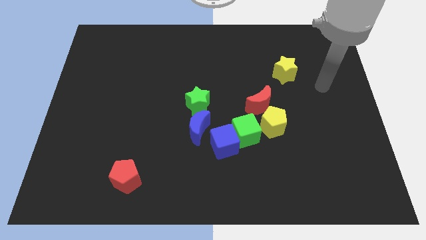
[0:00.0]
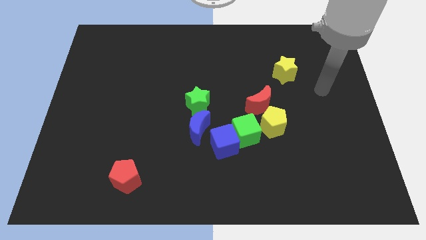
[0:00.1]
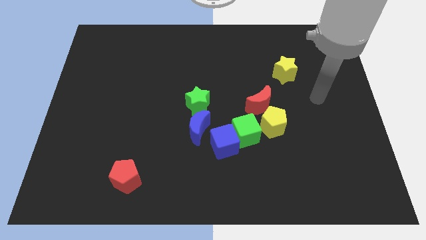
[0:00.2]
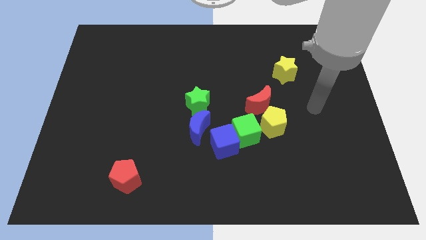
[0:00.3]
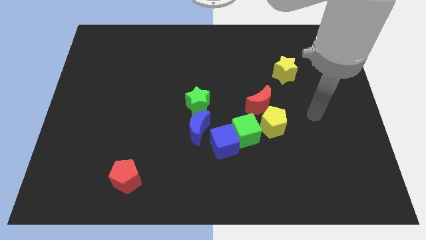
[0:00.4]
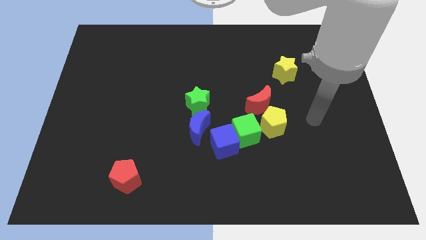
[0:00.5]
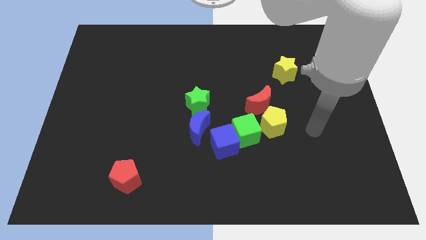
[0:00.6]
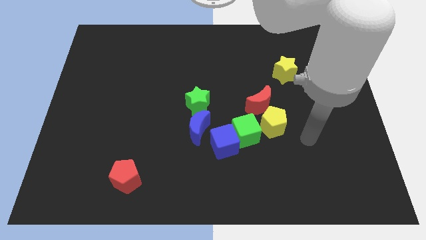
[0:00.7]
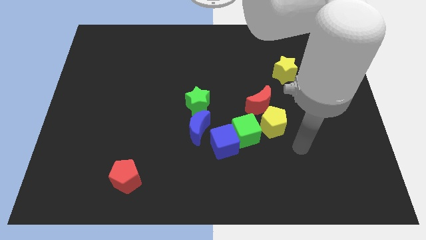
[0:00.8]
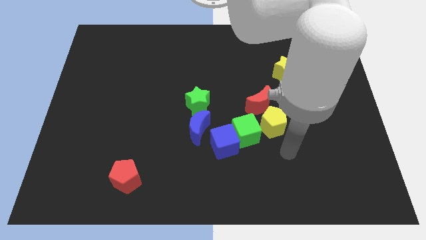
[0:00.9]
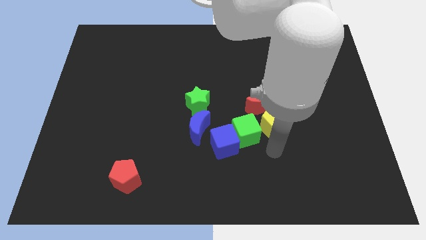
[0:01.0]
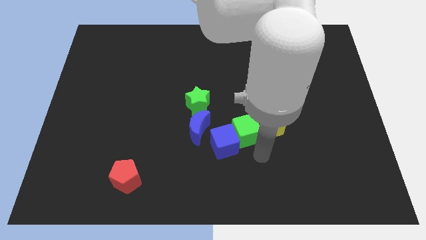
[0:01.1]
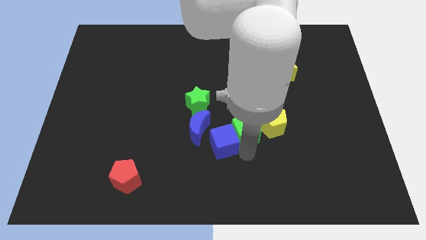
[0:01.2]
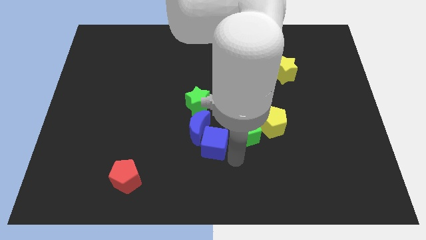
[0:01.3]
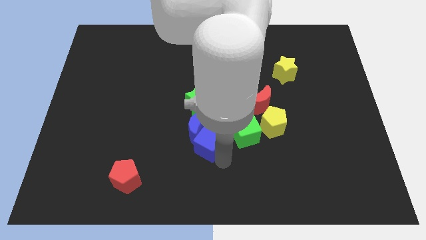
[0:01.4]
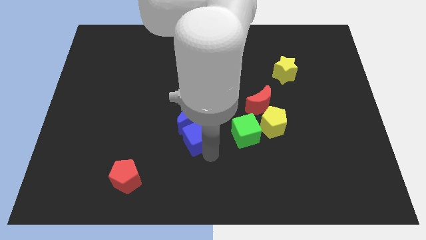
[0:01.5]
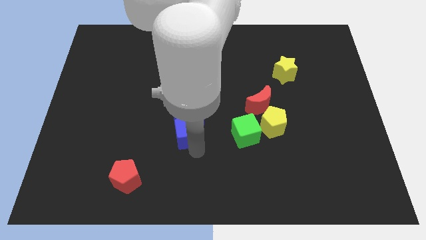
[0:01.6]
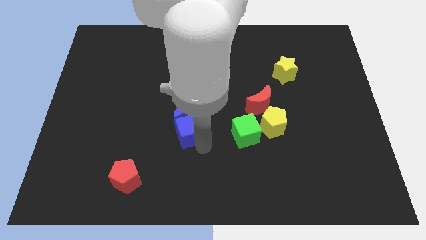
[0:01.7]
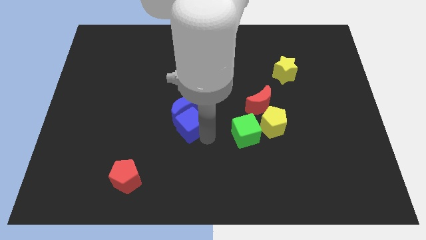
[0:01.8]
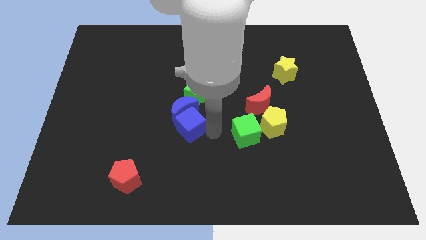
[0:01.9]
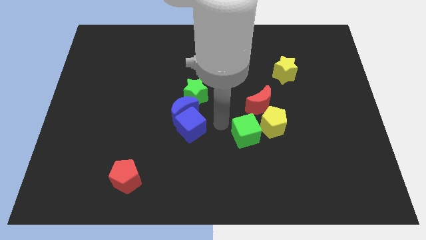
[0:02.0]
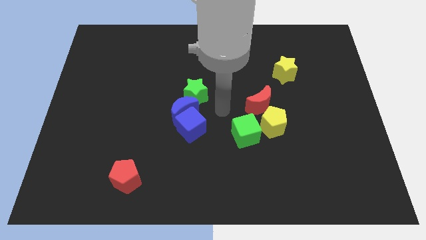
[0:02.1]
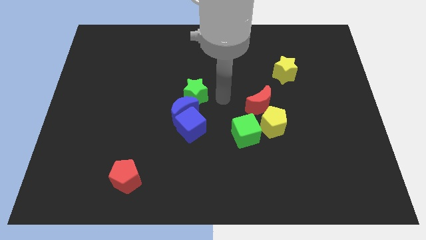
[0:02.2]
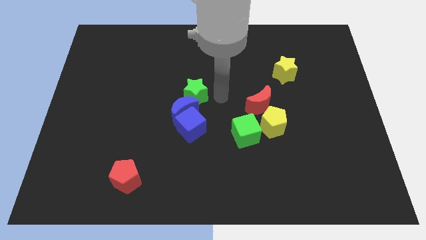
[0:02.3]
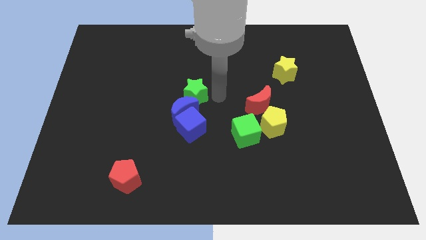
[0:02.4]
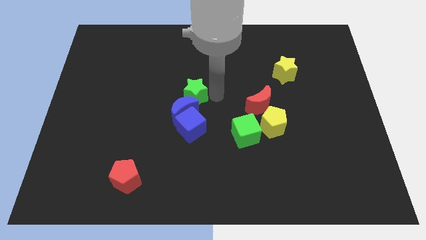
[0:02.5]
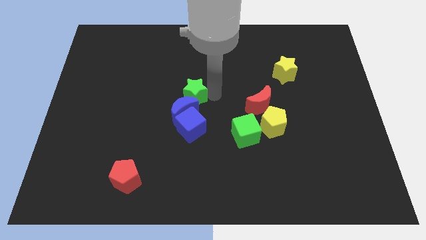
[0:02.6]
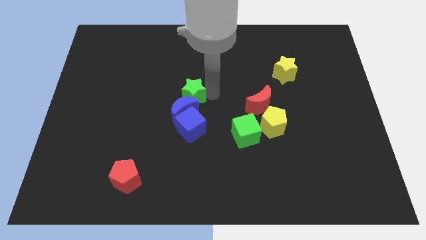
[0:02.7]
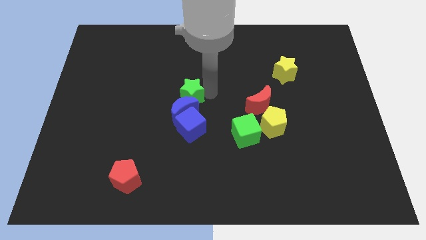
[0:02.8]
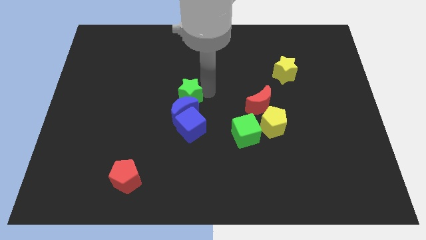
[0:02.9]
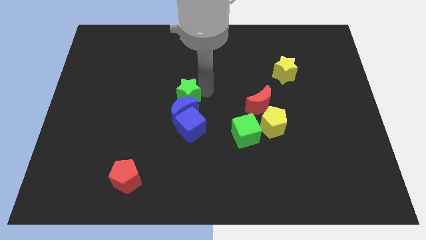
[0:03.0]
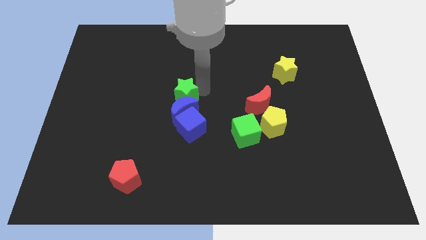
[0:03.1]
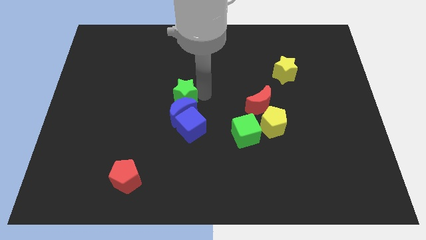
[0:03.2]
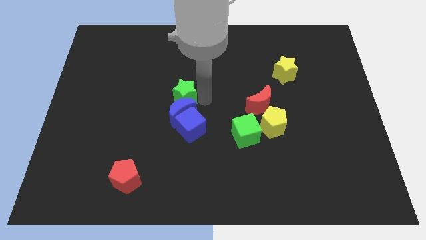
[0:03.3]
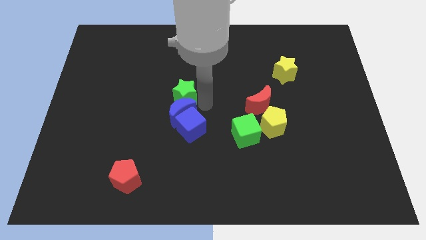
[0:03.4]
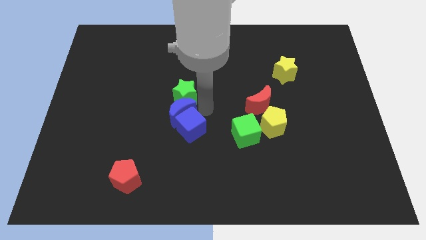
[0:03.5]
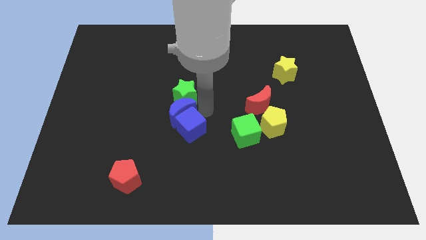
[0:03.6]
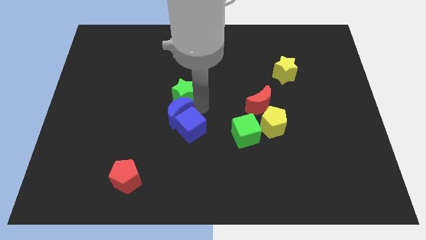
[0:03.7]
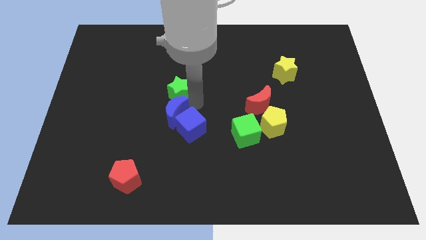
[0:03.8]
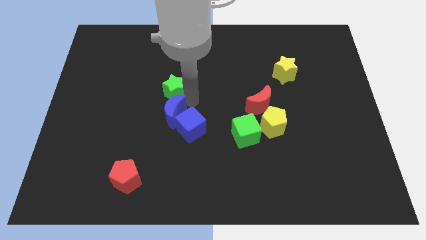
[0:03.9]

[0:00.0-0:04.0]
move the green star upwards and left diagonally a little

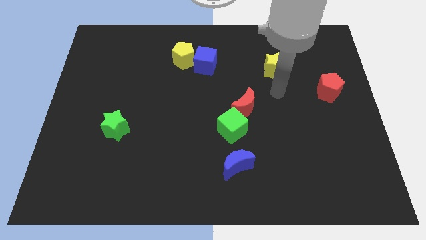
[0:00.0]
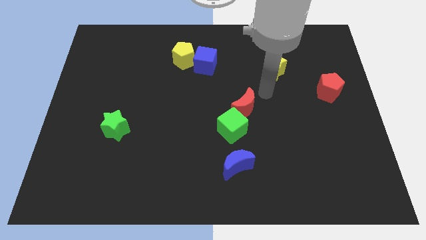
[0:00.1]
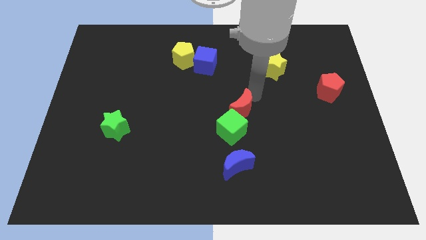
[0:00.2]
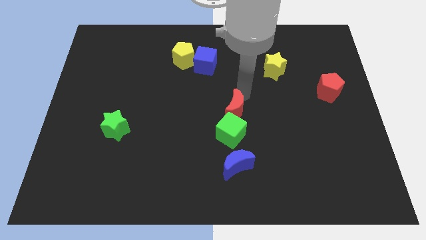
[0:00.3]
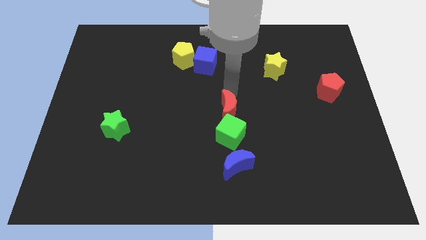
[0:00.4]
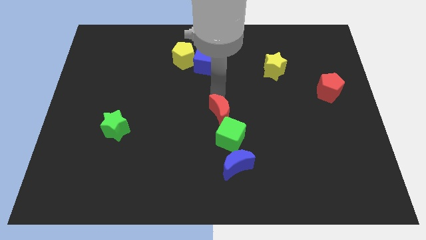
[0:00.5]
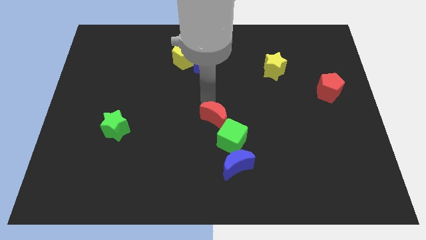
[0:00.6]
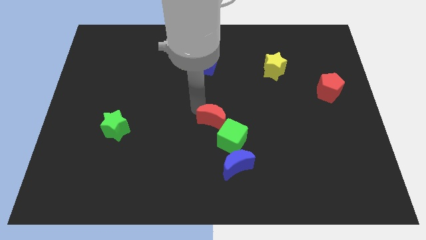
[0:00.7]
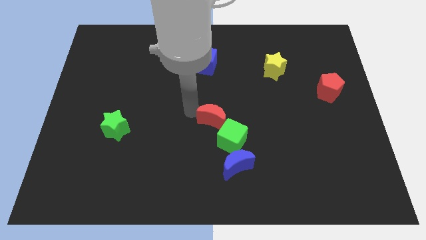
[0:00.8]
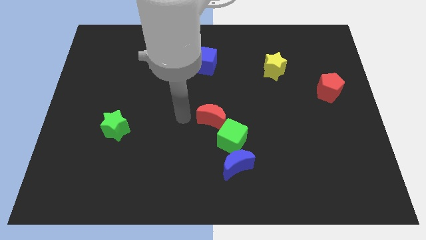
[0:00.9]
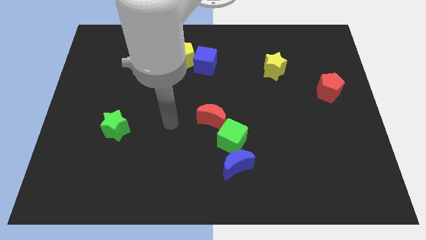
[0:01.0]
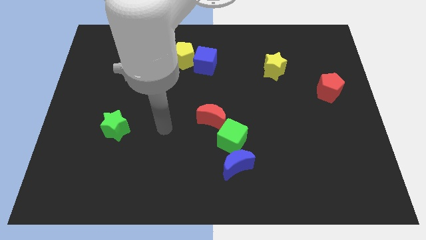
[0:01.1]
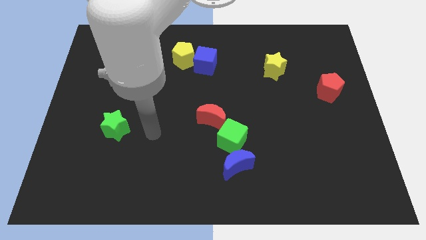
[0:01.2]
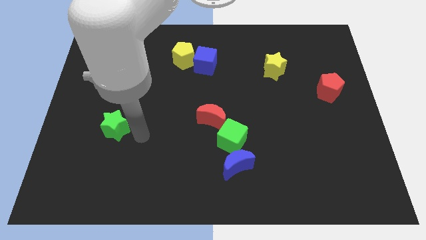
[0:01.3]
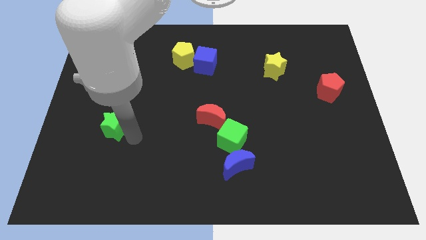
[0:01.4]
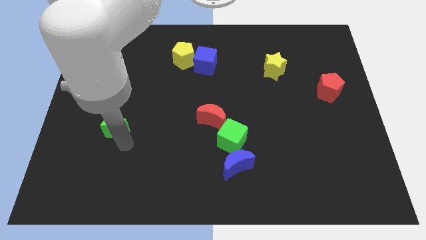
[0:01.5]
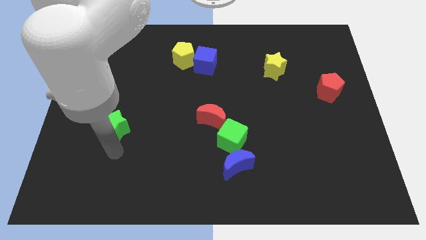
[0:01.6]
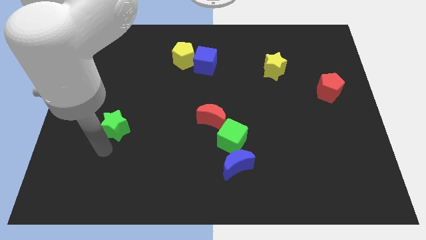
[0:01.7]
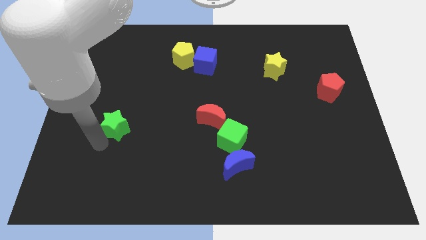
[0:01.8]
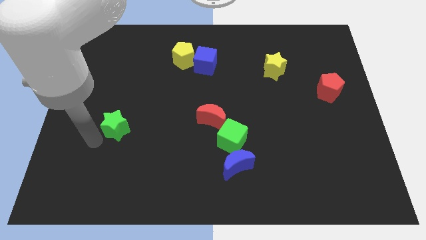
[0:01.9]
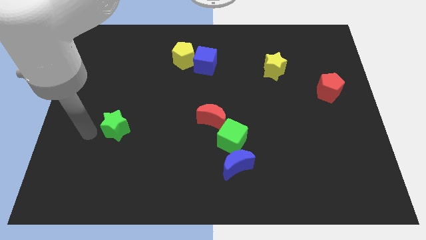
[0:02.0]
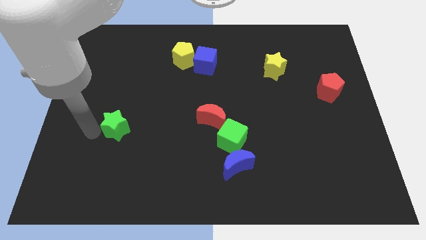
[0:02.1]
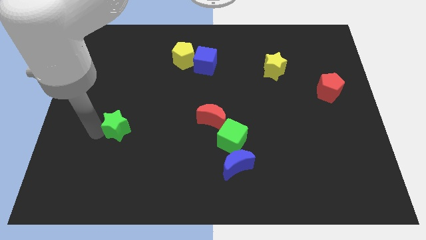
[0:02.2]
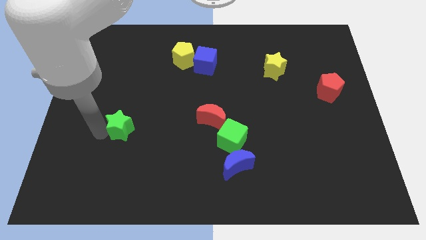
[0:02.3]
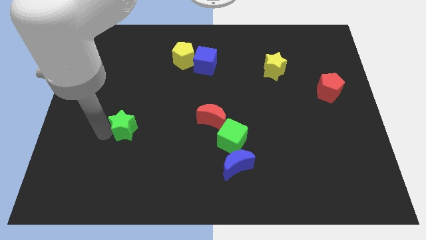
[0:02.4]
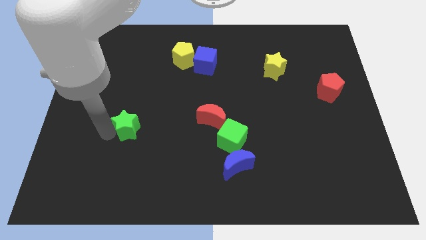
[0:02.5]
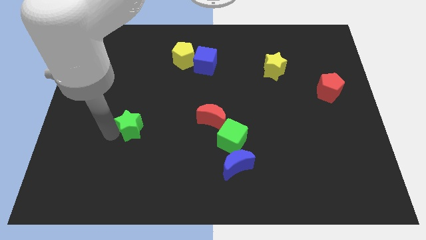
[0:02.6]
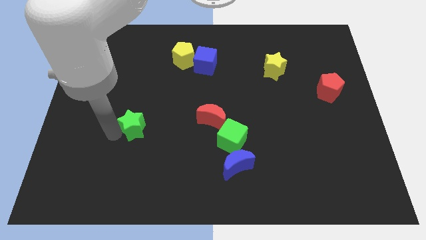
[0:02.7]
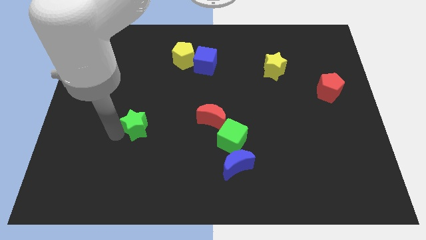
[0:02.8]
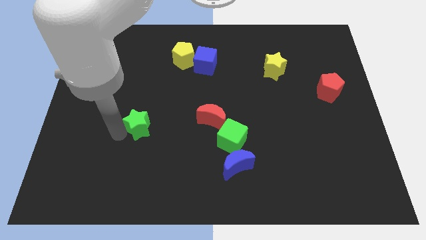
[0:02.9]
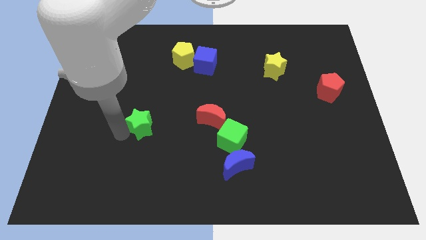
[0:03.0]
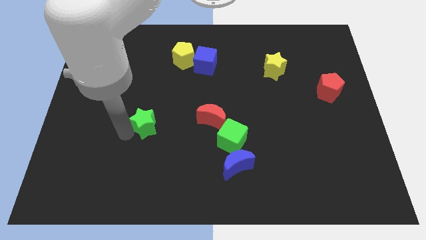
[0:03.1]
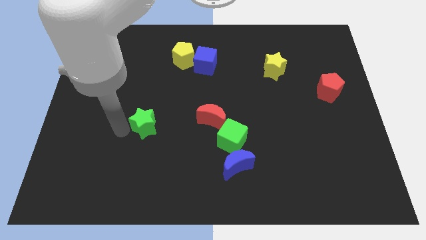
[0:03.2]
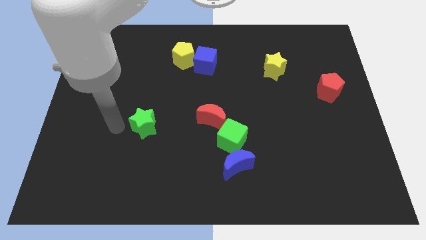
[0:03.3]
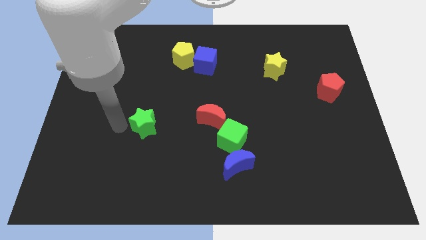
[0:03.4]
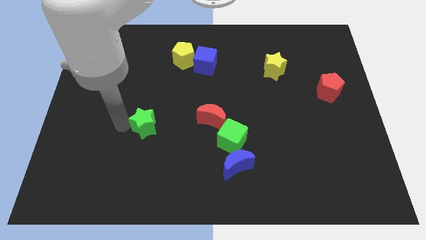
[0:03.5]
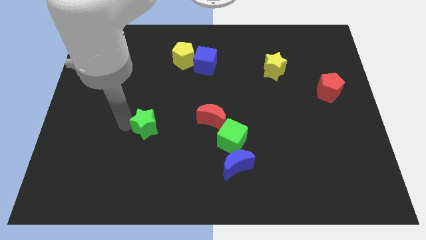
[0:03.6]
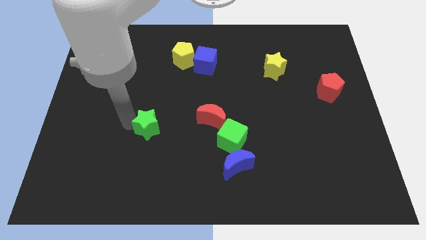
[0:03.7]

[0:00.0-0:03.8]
push the green star a bit right

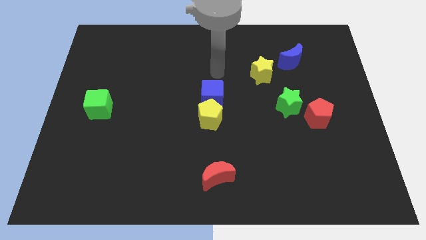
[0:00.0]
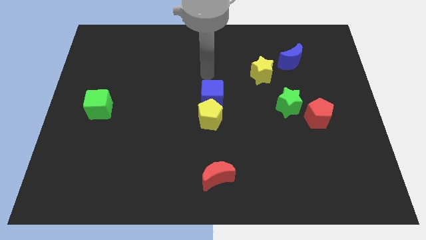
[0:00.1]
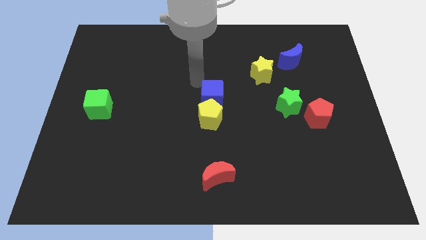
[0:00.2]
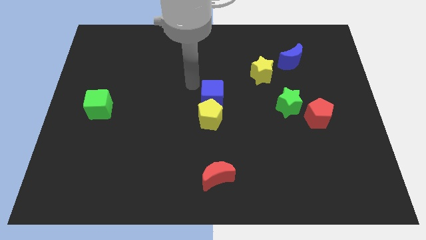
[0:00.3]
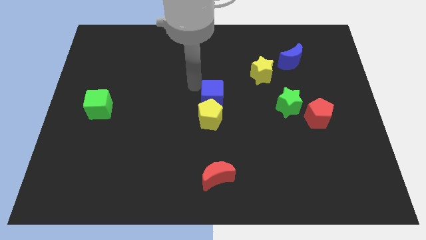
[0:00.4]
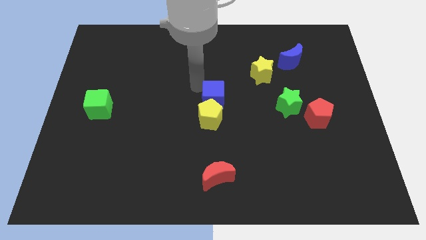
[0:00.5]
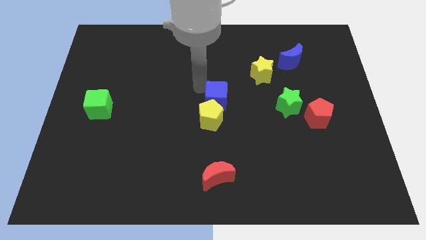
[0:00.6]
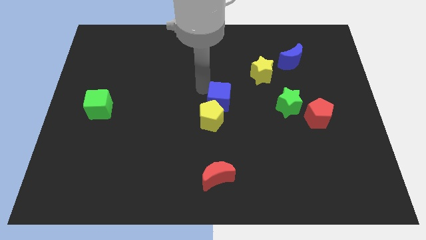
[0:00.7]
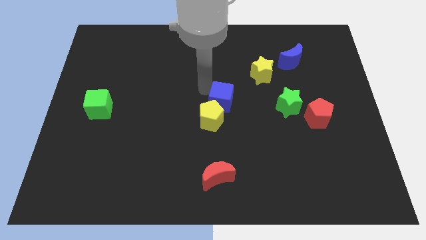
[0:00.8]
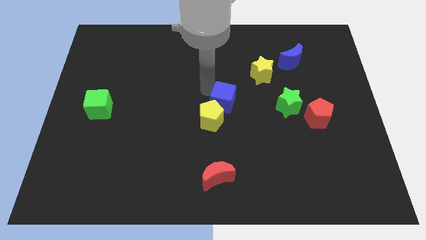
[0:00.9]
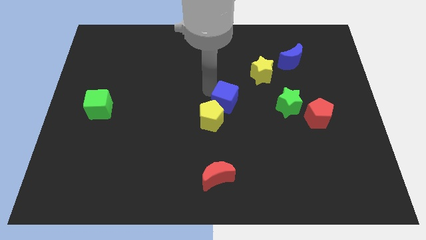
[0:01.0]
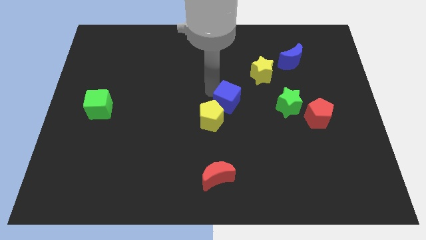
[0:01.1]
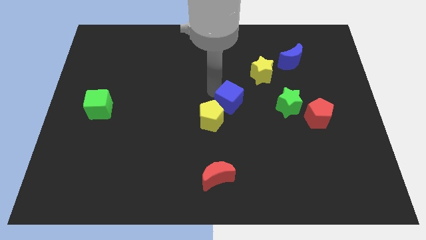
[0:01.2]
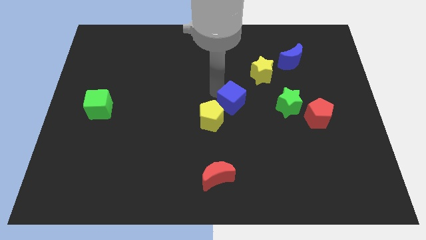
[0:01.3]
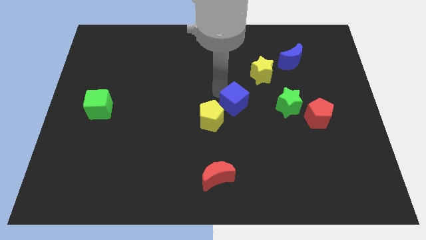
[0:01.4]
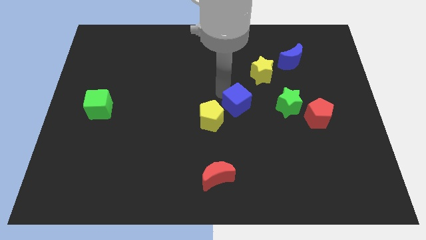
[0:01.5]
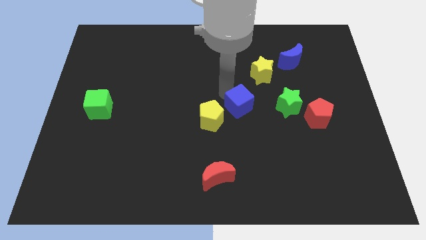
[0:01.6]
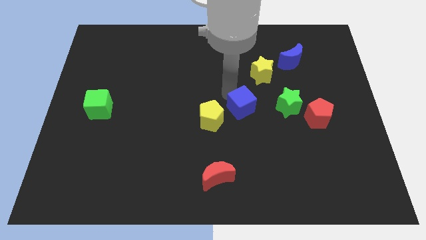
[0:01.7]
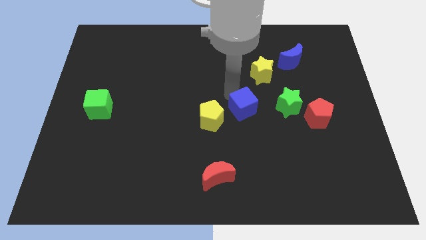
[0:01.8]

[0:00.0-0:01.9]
slightly move the blue cube diagonally down and right
